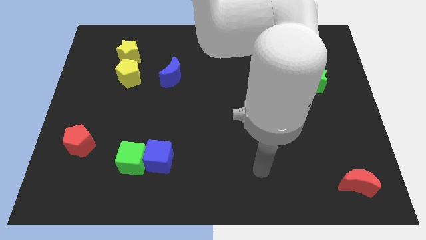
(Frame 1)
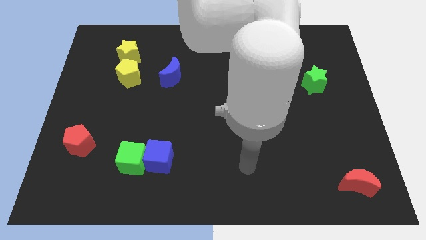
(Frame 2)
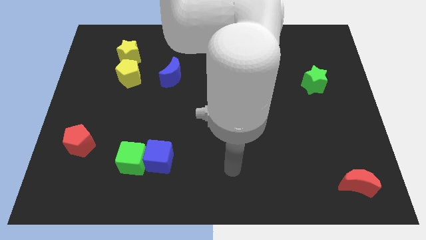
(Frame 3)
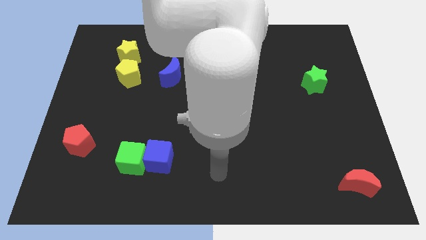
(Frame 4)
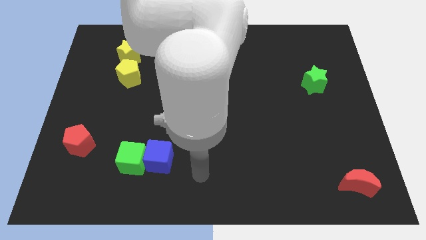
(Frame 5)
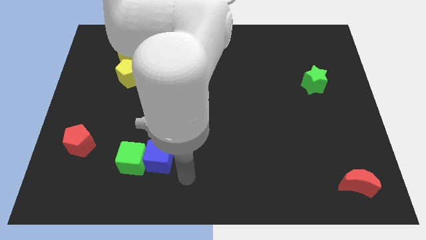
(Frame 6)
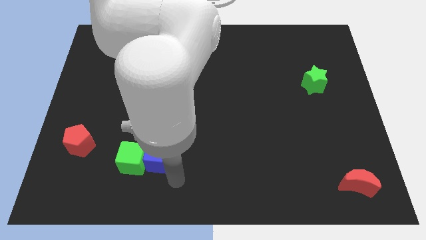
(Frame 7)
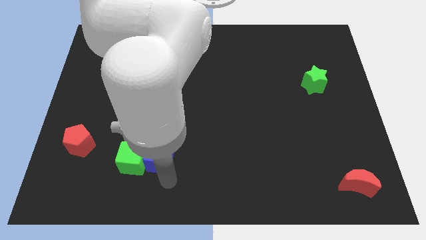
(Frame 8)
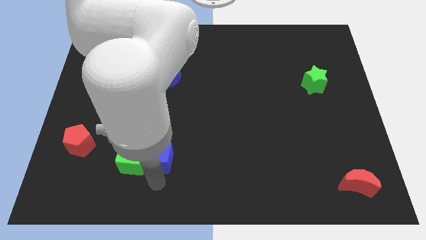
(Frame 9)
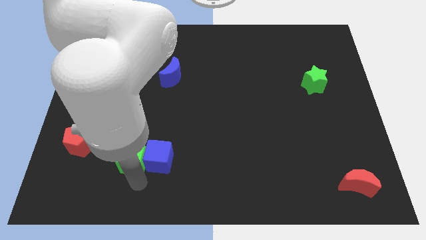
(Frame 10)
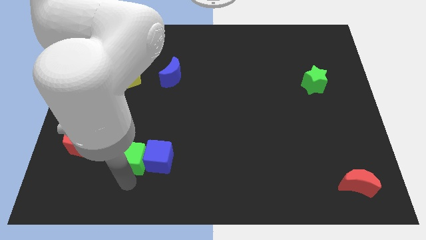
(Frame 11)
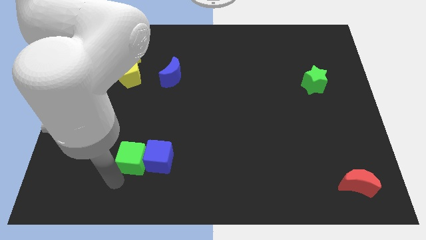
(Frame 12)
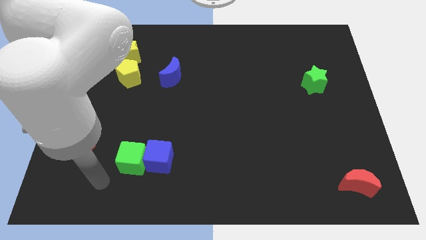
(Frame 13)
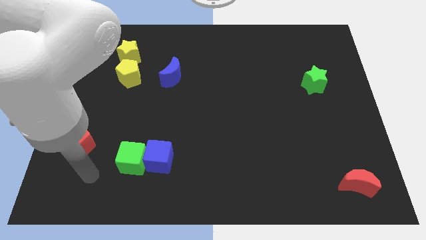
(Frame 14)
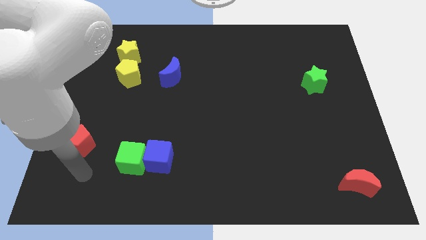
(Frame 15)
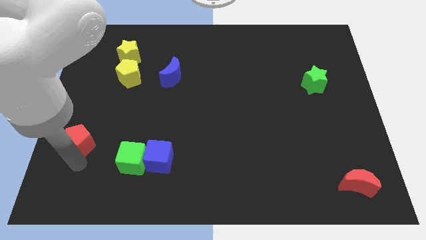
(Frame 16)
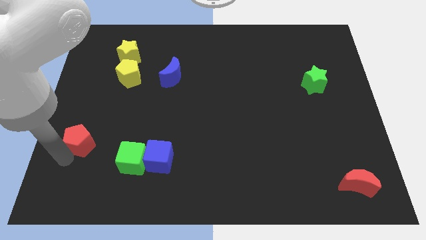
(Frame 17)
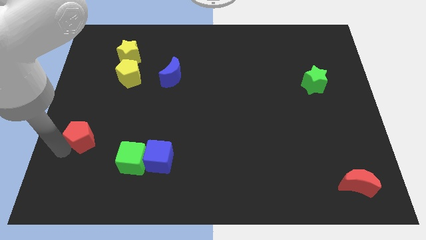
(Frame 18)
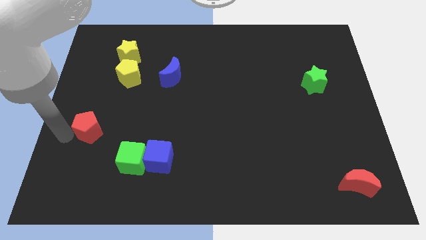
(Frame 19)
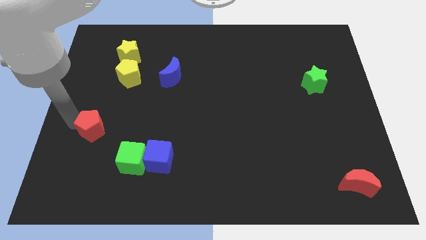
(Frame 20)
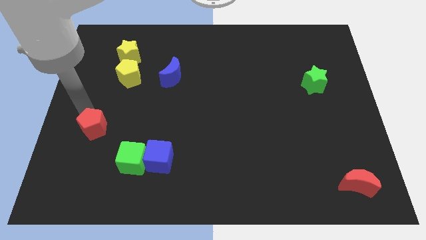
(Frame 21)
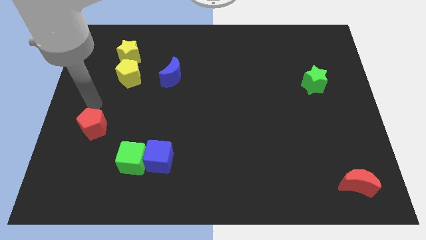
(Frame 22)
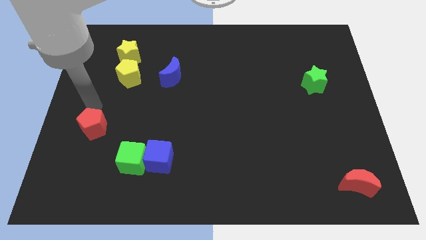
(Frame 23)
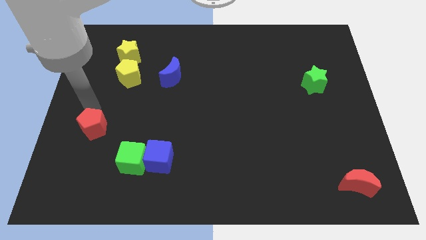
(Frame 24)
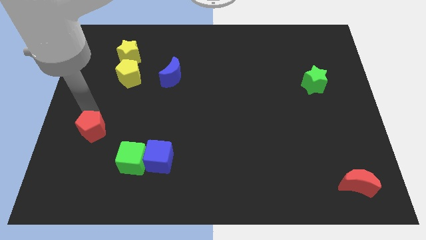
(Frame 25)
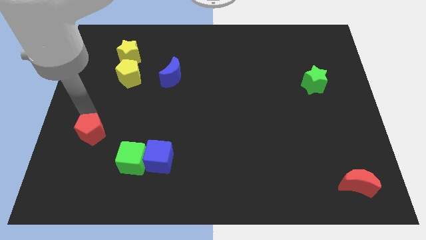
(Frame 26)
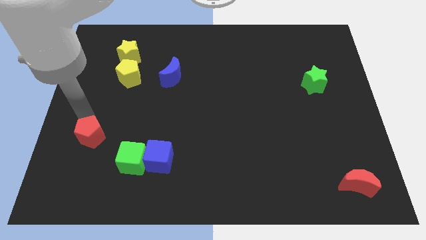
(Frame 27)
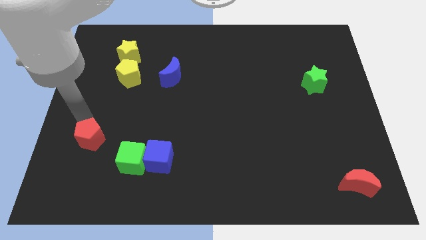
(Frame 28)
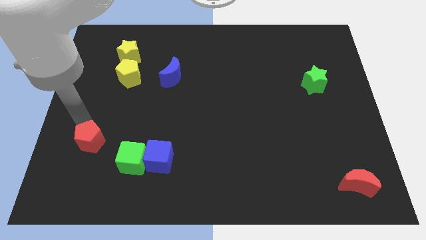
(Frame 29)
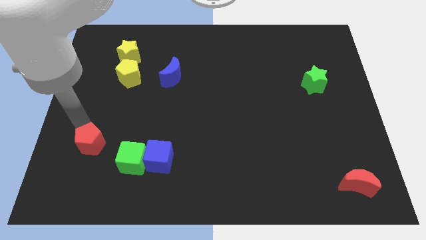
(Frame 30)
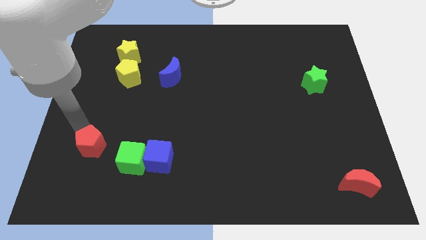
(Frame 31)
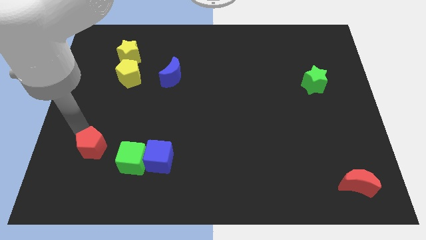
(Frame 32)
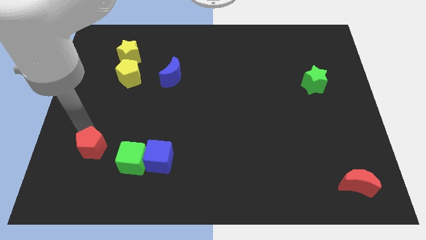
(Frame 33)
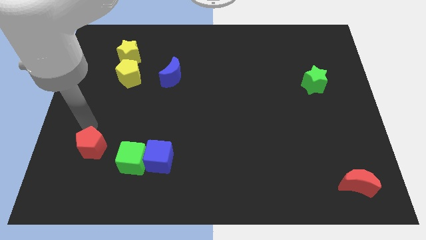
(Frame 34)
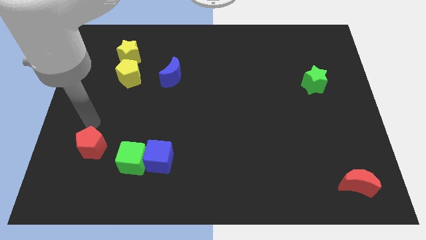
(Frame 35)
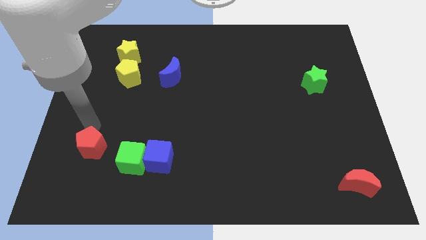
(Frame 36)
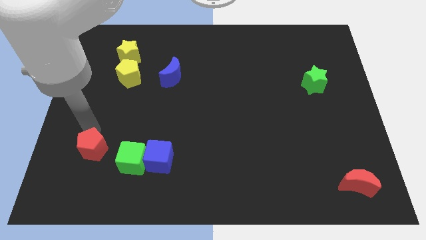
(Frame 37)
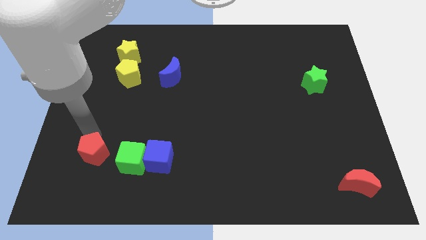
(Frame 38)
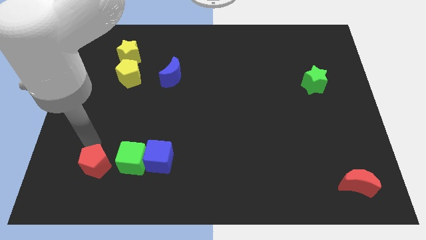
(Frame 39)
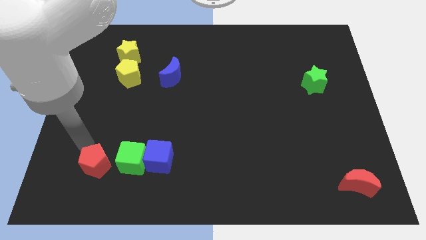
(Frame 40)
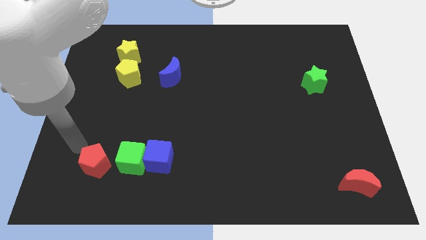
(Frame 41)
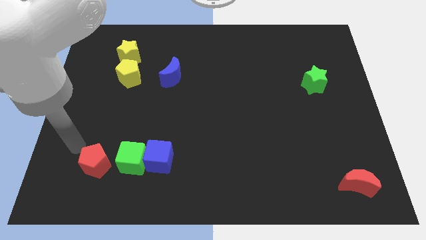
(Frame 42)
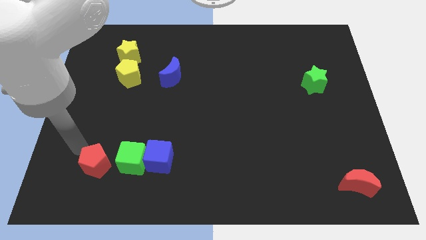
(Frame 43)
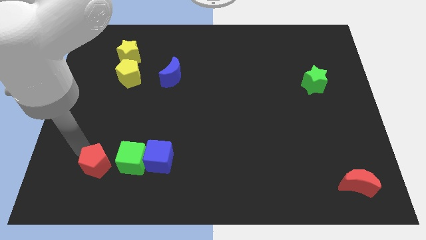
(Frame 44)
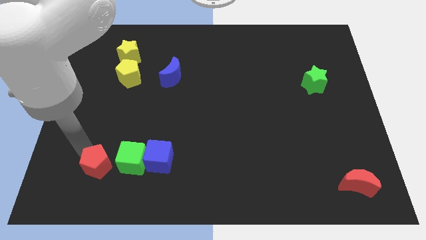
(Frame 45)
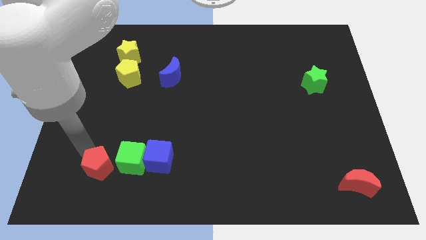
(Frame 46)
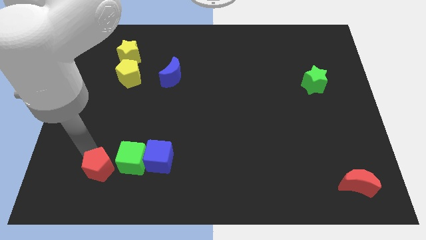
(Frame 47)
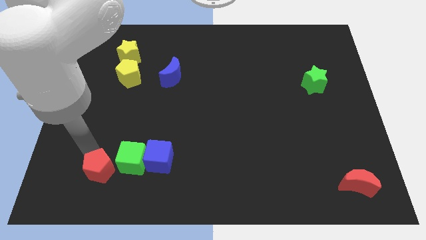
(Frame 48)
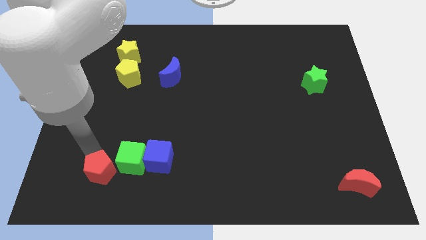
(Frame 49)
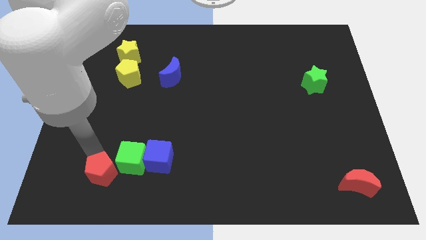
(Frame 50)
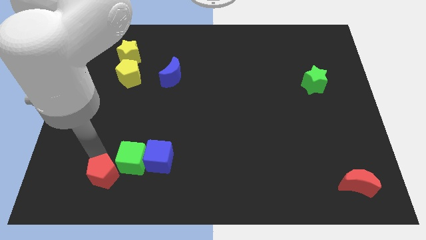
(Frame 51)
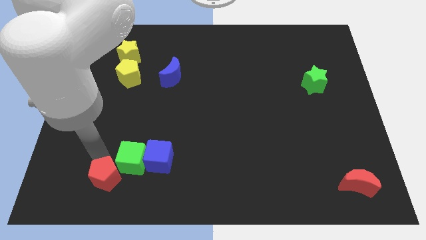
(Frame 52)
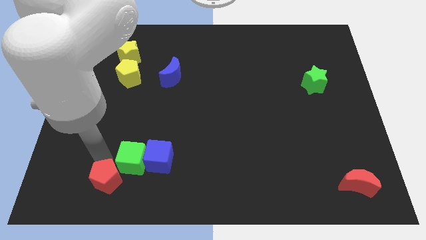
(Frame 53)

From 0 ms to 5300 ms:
push the red pentagon diagonally down and to the left of the blue cube
